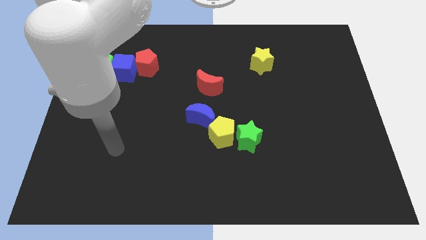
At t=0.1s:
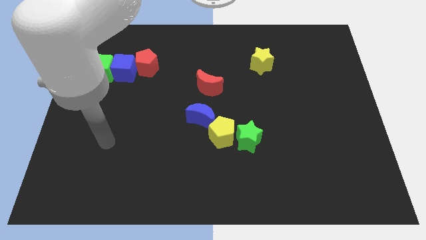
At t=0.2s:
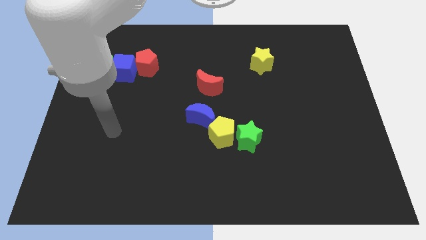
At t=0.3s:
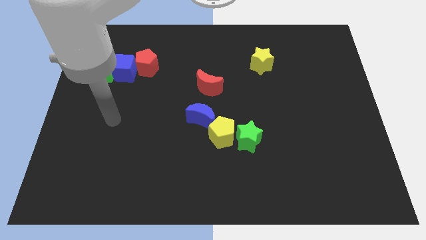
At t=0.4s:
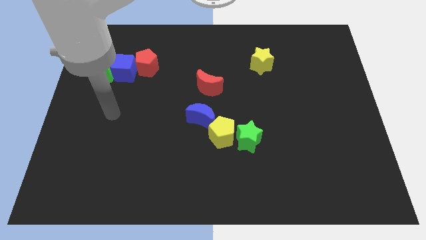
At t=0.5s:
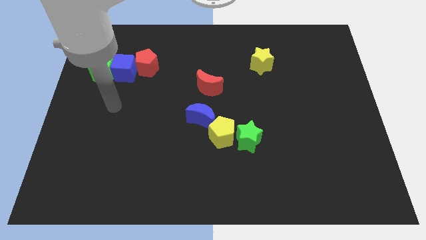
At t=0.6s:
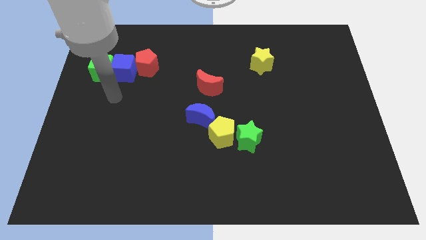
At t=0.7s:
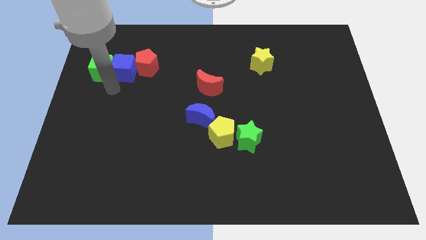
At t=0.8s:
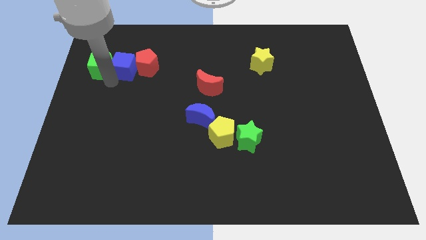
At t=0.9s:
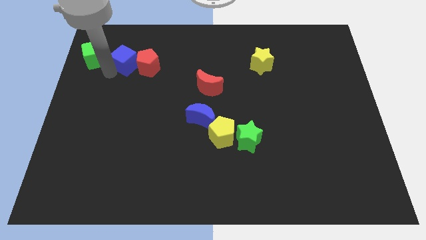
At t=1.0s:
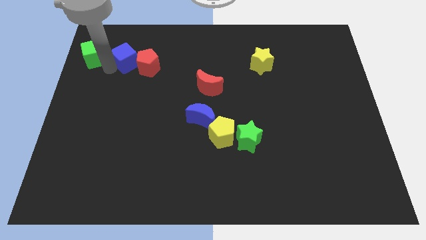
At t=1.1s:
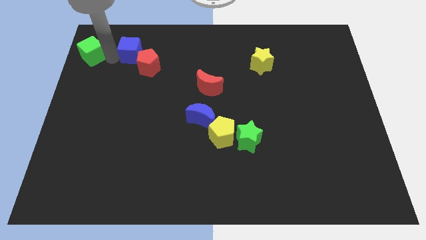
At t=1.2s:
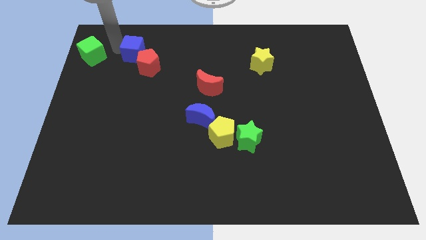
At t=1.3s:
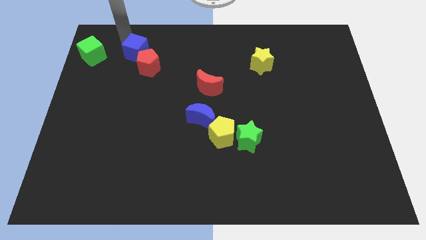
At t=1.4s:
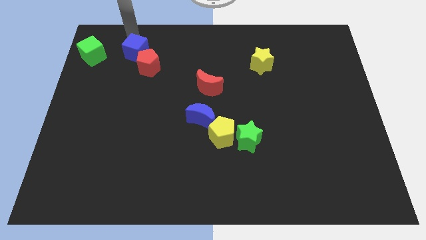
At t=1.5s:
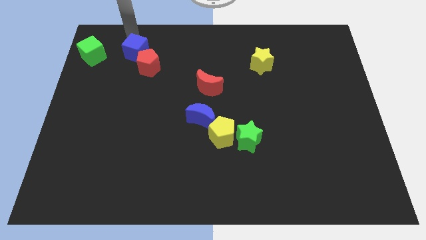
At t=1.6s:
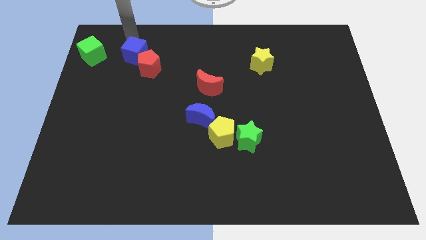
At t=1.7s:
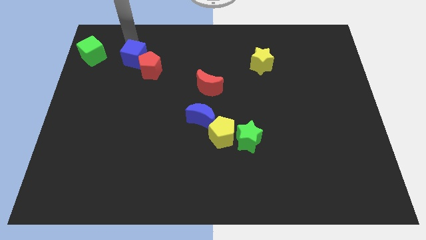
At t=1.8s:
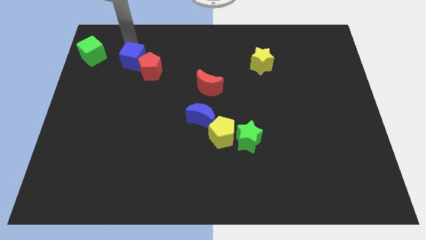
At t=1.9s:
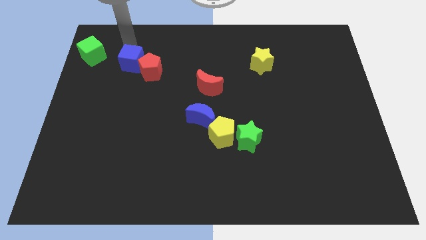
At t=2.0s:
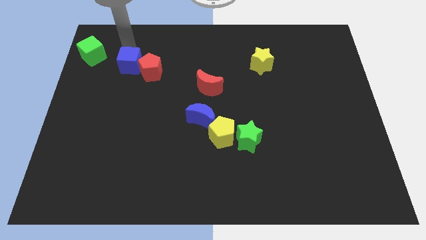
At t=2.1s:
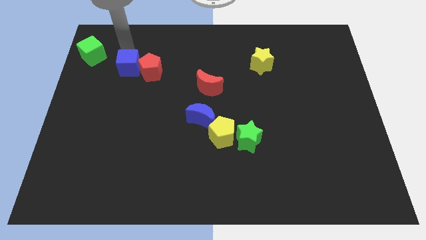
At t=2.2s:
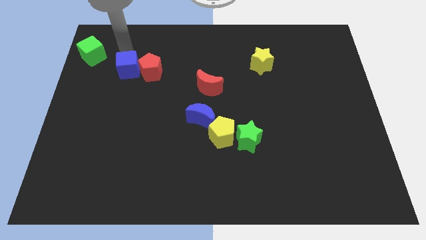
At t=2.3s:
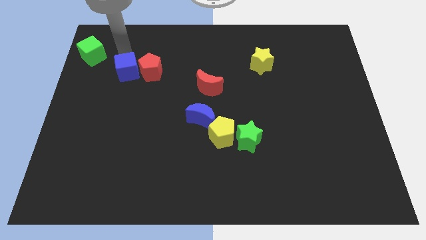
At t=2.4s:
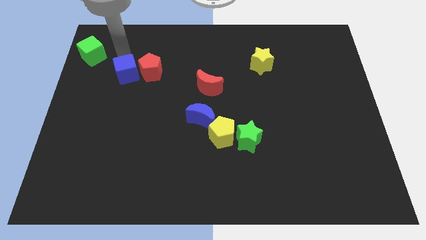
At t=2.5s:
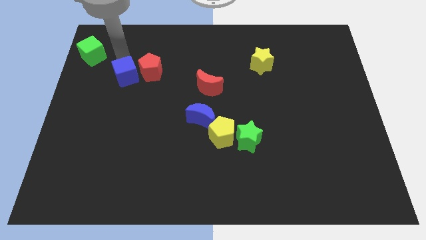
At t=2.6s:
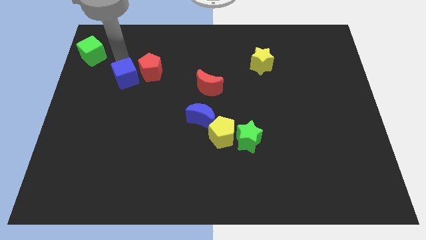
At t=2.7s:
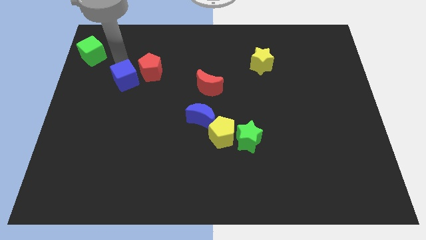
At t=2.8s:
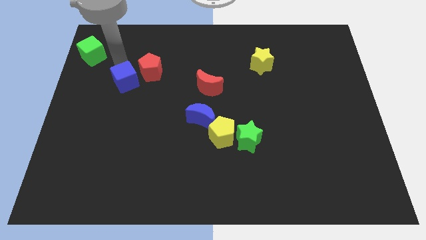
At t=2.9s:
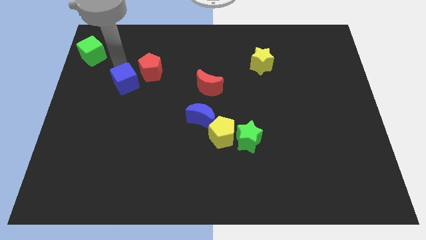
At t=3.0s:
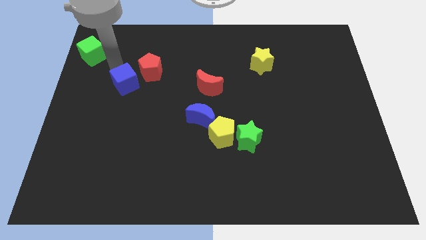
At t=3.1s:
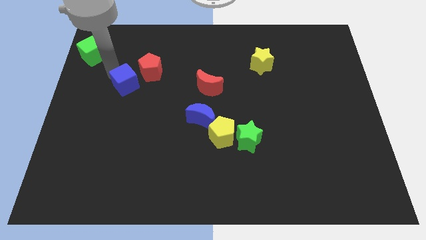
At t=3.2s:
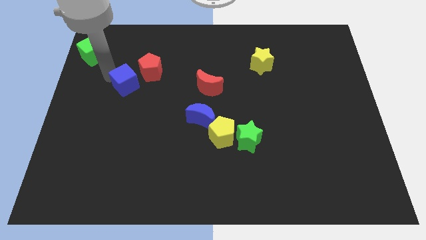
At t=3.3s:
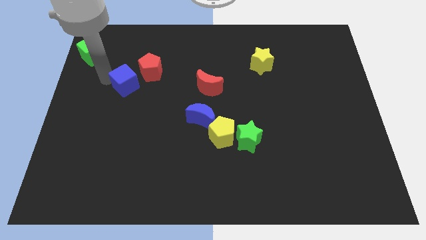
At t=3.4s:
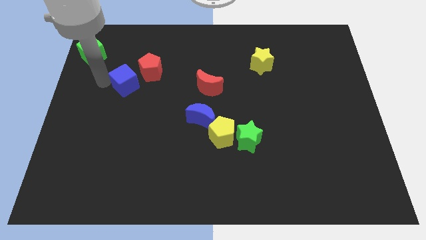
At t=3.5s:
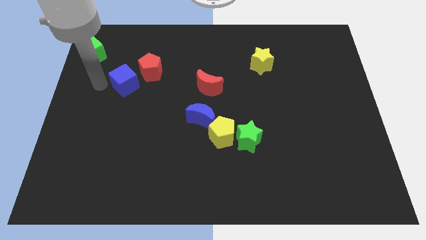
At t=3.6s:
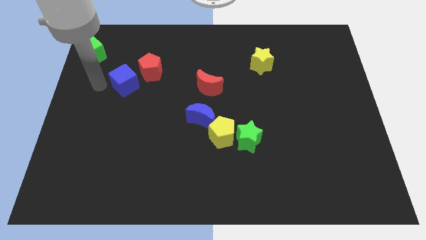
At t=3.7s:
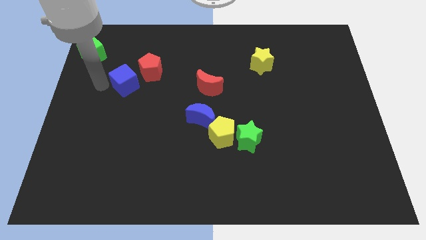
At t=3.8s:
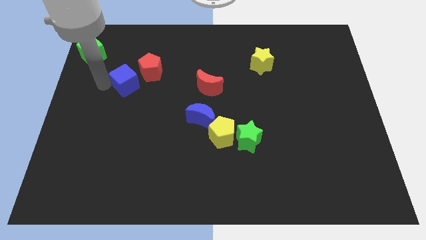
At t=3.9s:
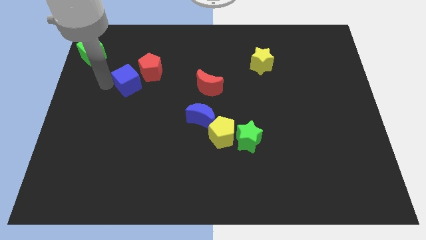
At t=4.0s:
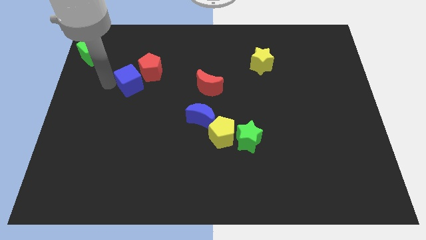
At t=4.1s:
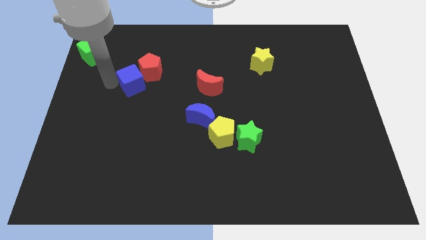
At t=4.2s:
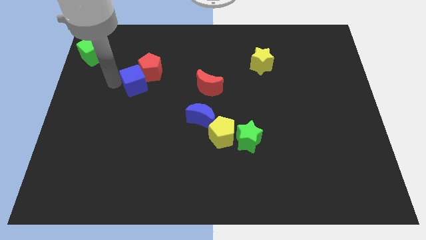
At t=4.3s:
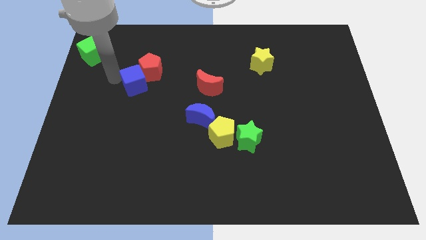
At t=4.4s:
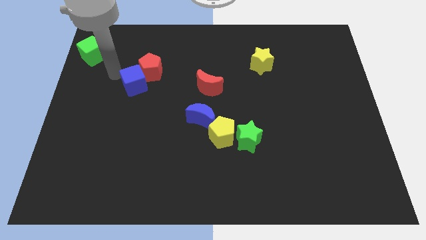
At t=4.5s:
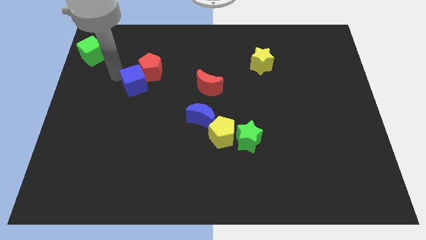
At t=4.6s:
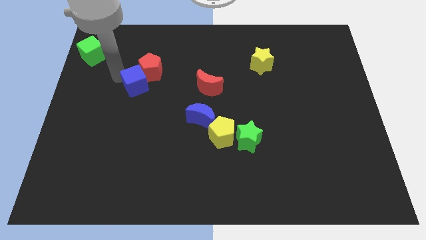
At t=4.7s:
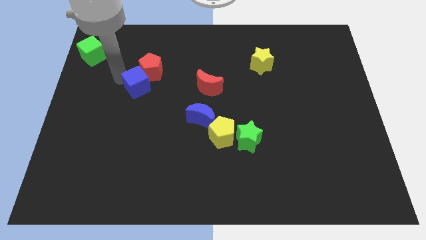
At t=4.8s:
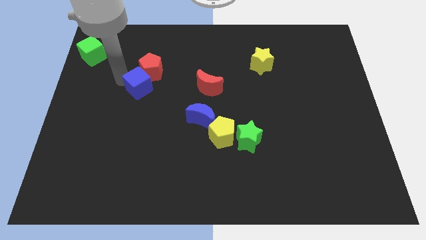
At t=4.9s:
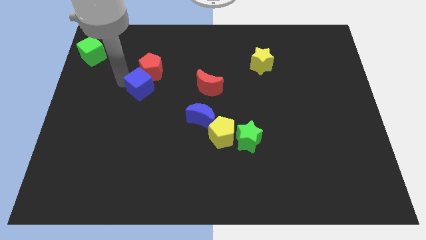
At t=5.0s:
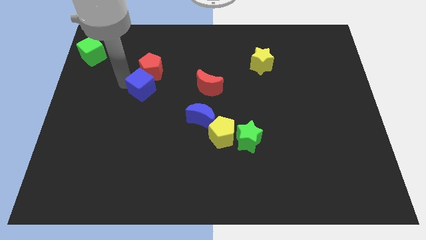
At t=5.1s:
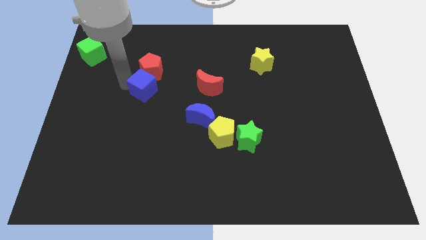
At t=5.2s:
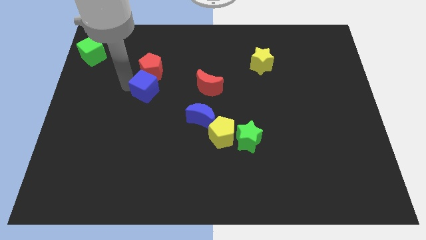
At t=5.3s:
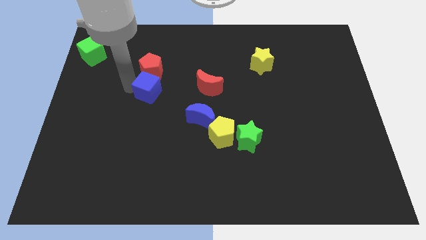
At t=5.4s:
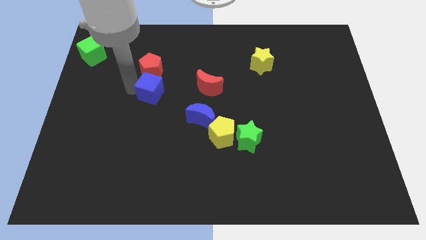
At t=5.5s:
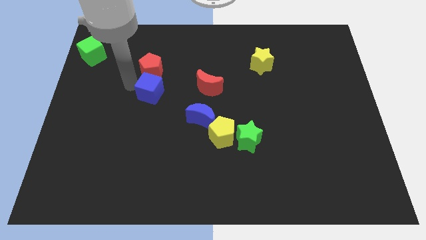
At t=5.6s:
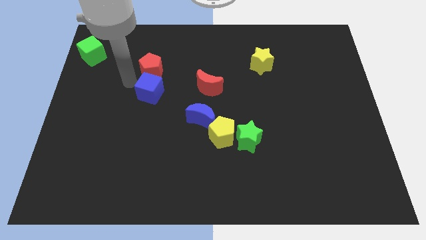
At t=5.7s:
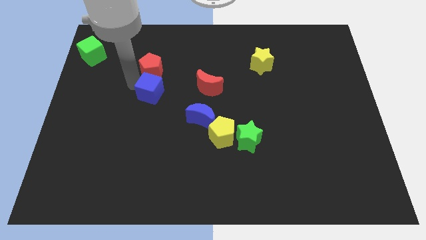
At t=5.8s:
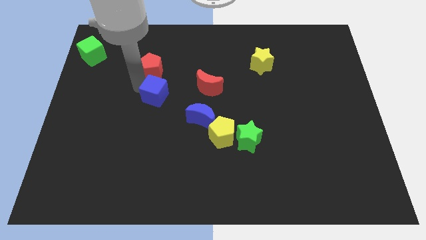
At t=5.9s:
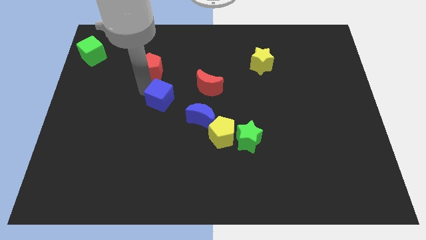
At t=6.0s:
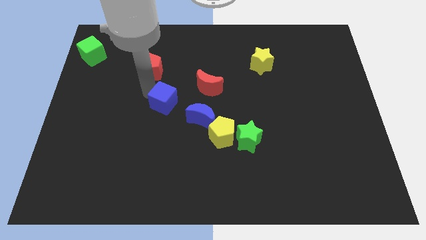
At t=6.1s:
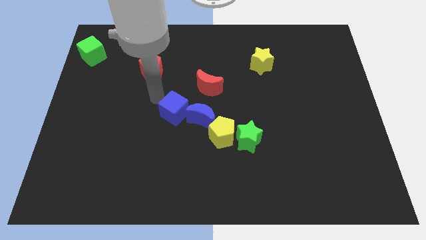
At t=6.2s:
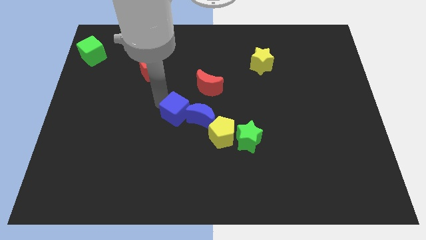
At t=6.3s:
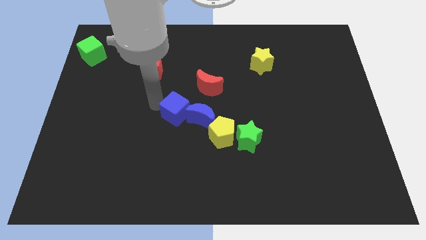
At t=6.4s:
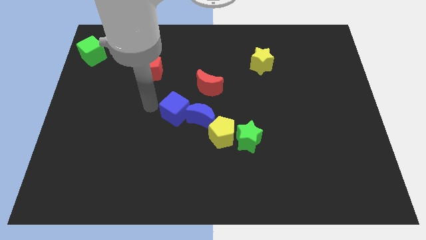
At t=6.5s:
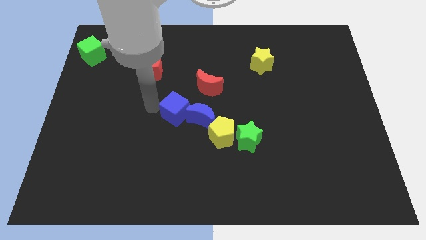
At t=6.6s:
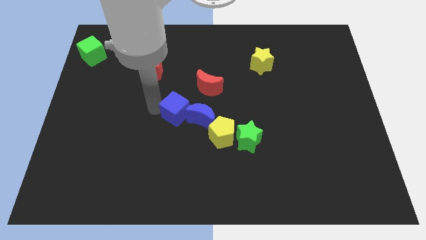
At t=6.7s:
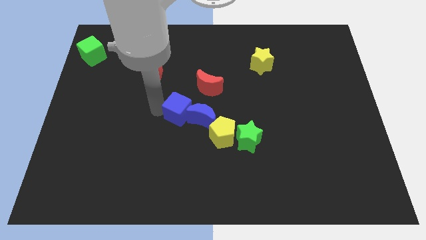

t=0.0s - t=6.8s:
push the blue cube towards the blue moon

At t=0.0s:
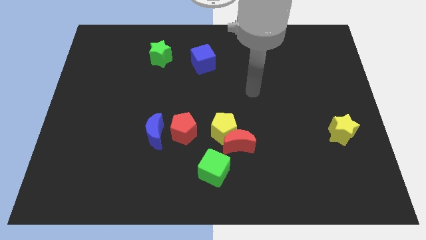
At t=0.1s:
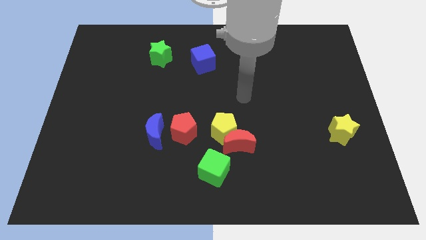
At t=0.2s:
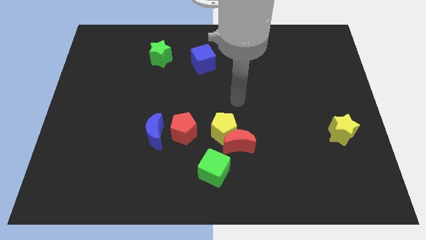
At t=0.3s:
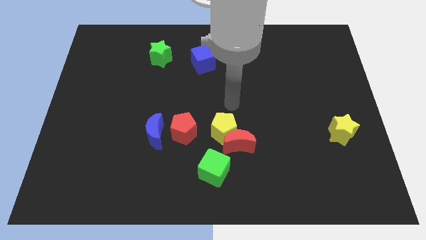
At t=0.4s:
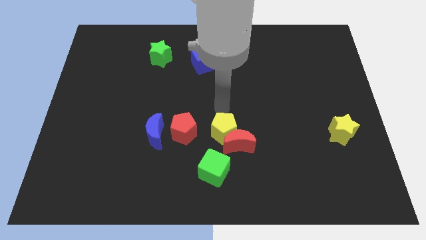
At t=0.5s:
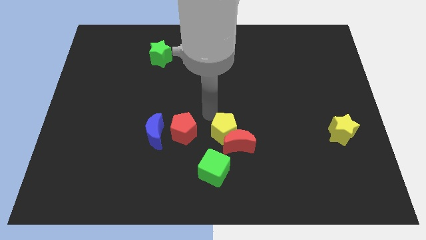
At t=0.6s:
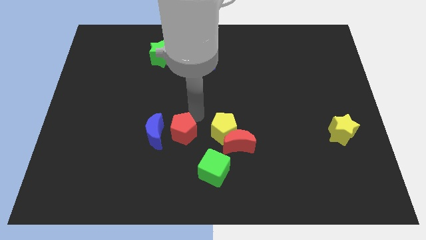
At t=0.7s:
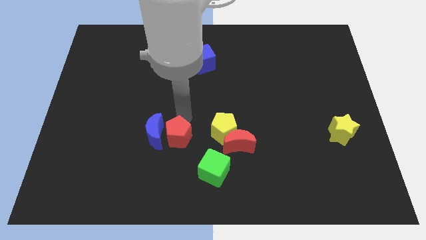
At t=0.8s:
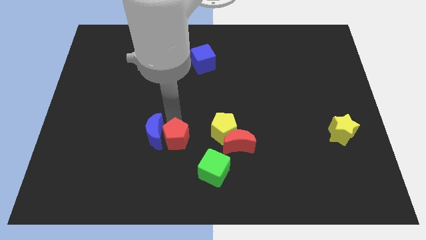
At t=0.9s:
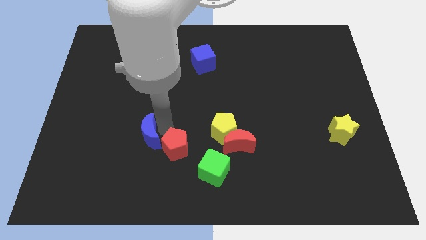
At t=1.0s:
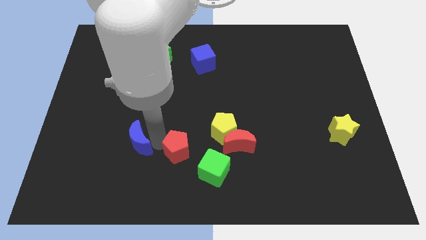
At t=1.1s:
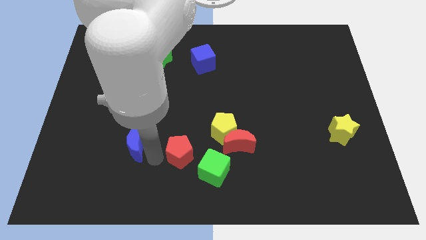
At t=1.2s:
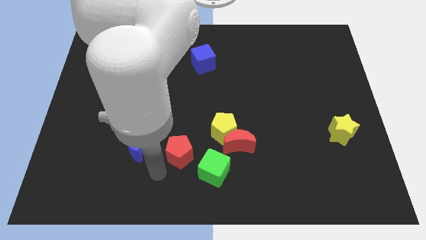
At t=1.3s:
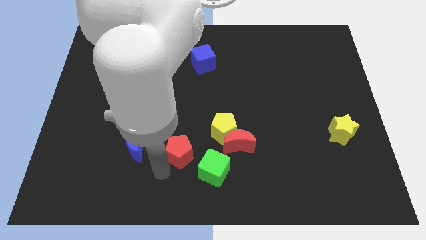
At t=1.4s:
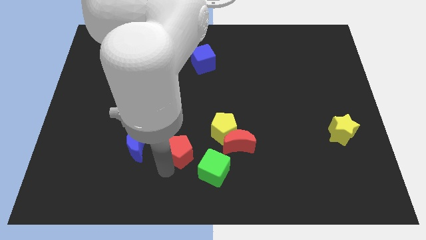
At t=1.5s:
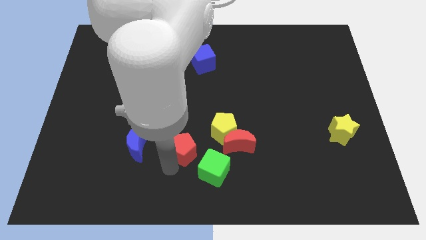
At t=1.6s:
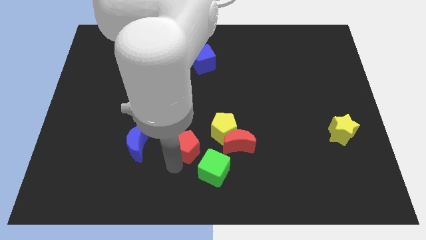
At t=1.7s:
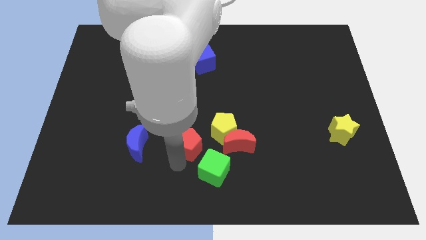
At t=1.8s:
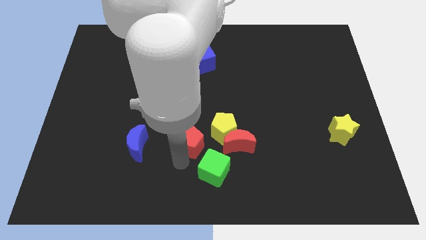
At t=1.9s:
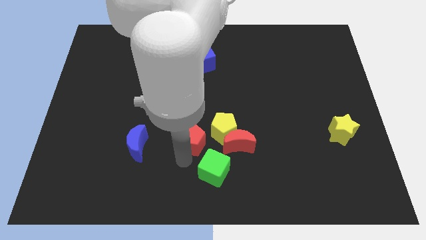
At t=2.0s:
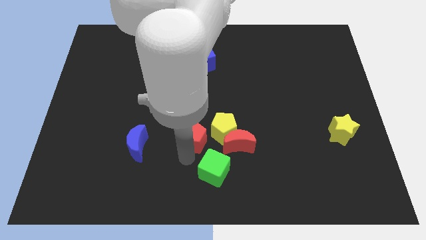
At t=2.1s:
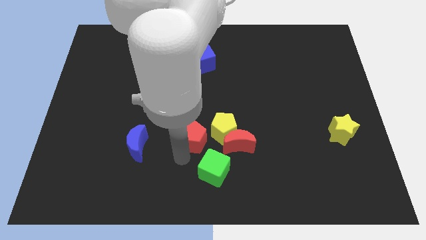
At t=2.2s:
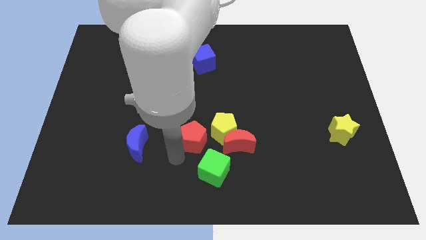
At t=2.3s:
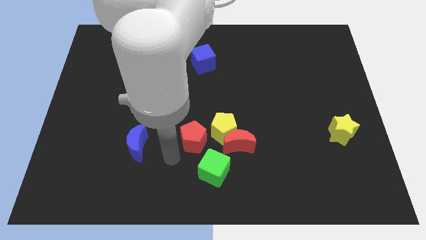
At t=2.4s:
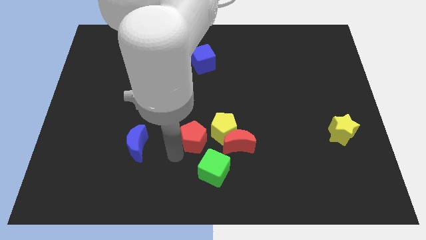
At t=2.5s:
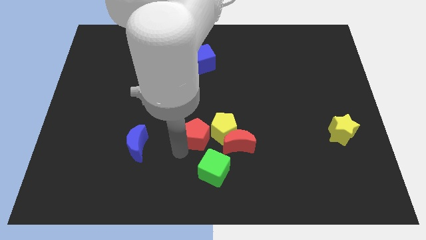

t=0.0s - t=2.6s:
put the red pentagon next to the yellow pentagon
